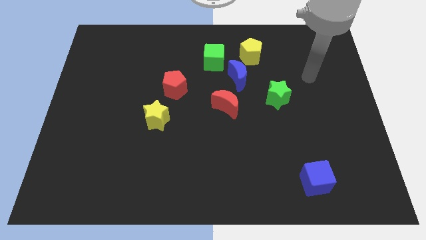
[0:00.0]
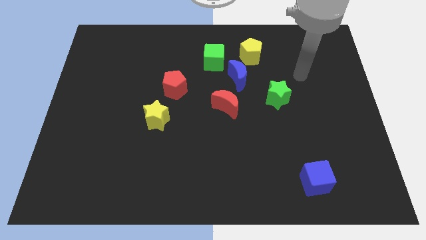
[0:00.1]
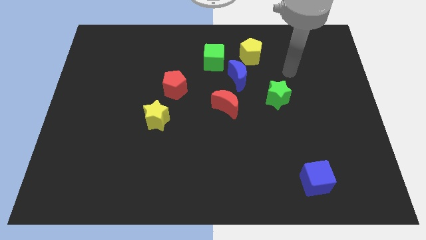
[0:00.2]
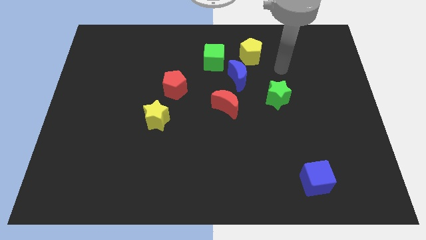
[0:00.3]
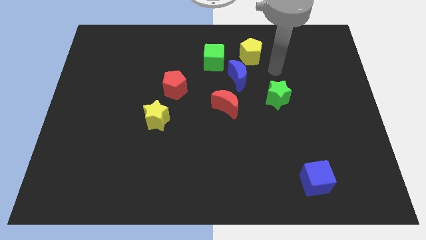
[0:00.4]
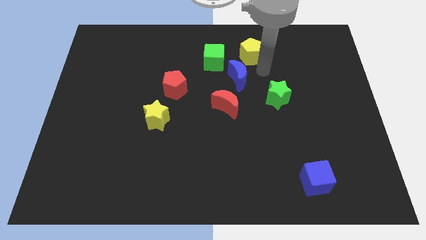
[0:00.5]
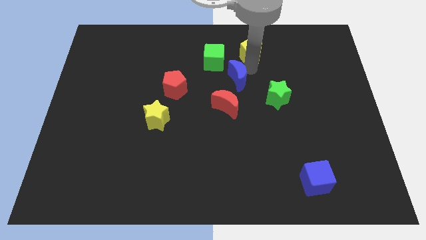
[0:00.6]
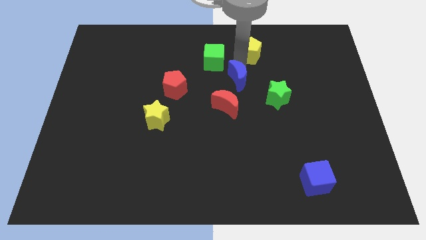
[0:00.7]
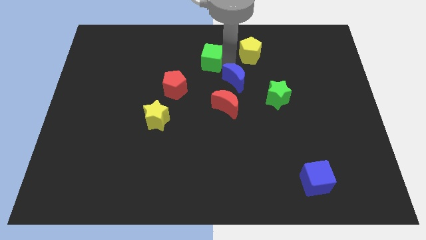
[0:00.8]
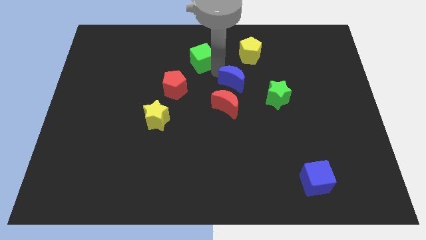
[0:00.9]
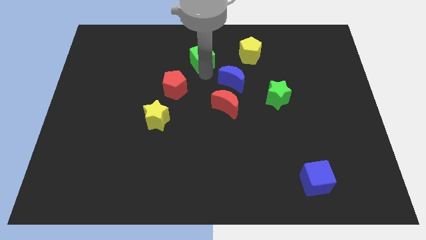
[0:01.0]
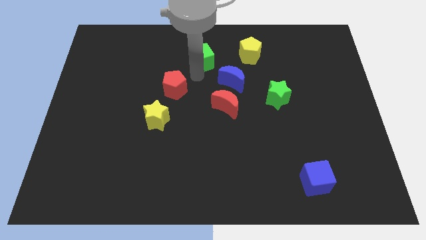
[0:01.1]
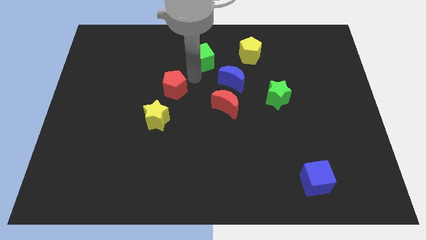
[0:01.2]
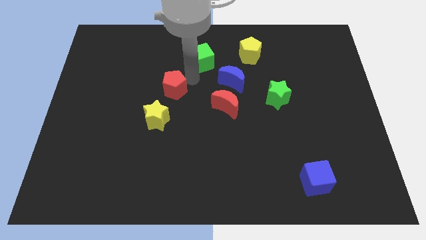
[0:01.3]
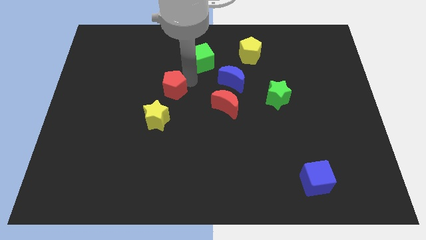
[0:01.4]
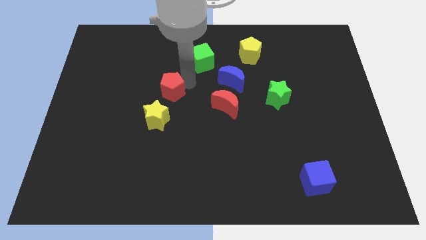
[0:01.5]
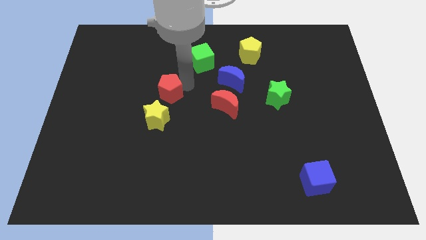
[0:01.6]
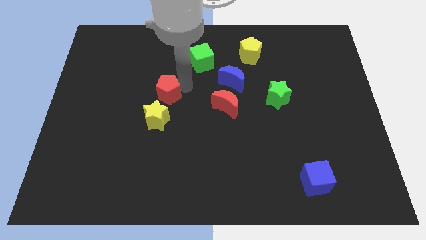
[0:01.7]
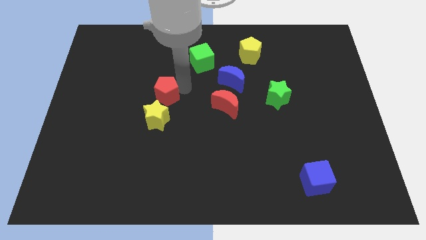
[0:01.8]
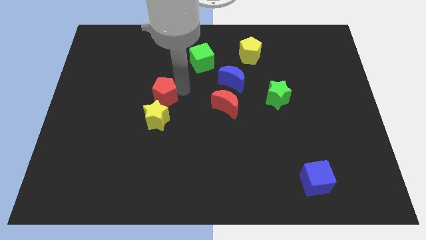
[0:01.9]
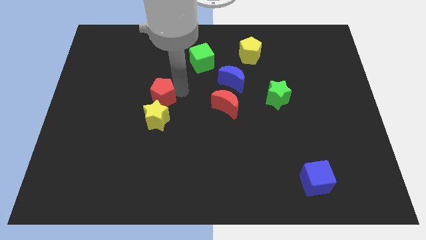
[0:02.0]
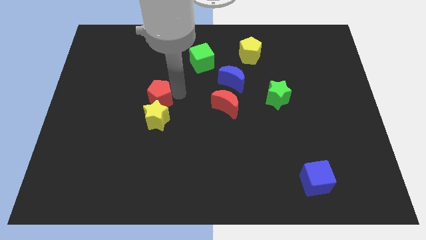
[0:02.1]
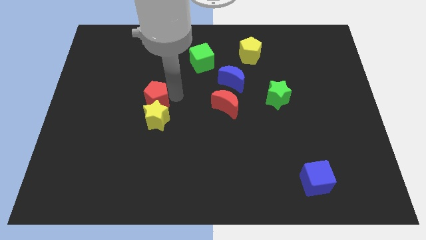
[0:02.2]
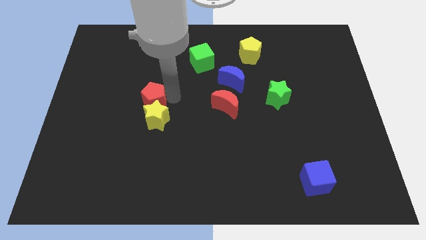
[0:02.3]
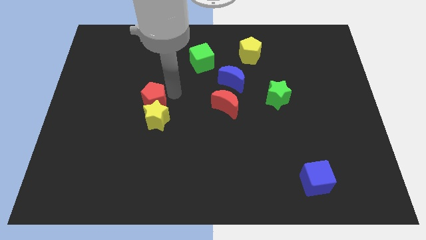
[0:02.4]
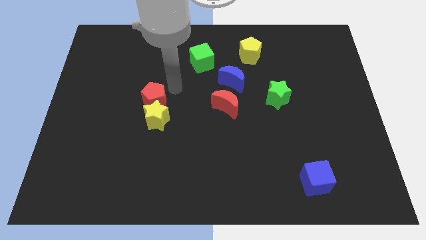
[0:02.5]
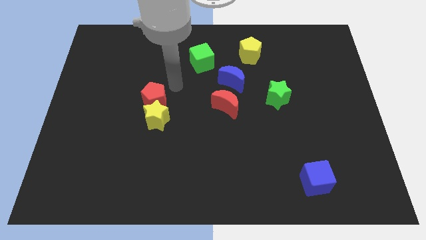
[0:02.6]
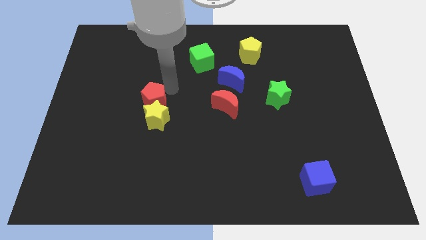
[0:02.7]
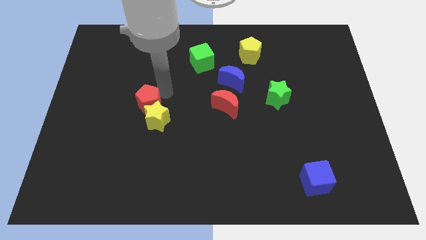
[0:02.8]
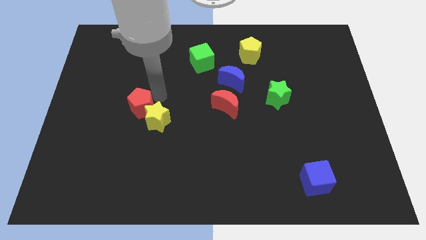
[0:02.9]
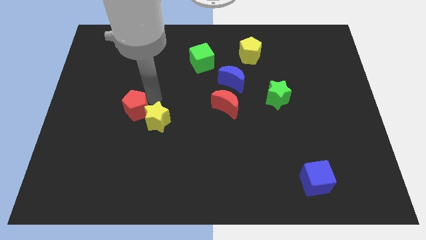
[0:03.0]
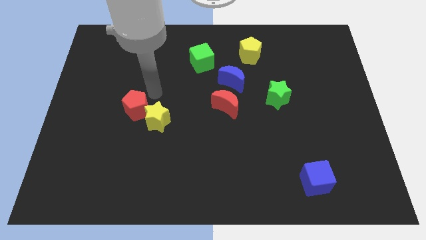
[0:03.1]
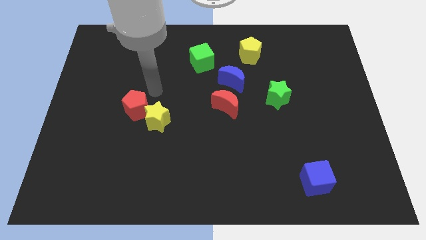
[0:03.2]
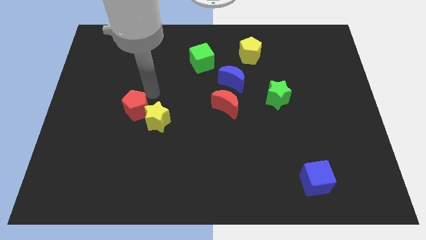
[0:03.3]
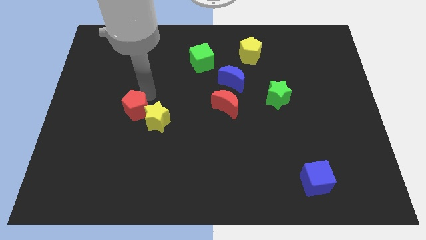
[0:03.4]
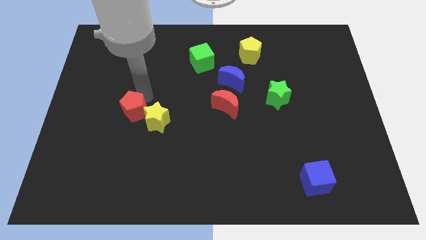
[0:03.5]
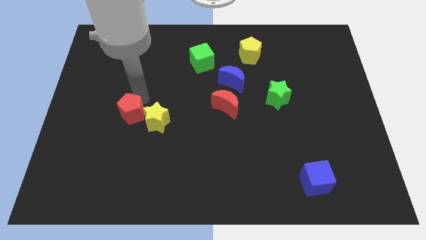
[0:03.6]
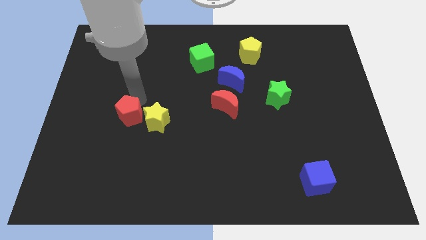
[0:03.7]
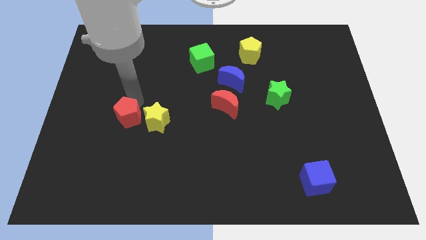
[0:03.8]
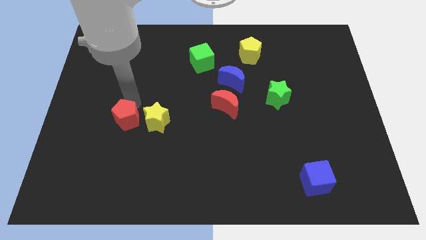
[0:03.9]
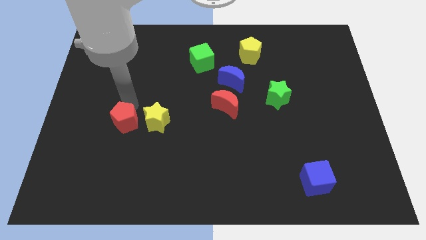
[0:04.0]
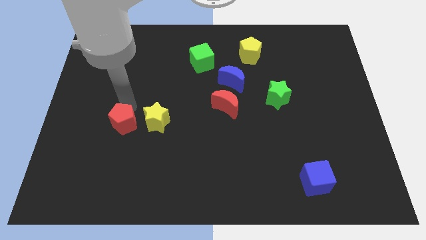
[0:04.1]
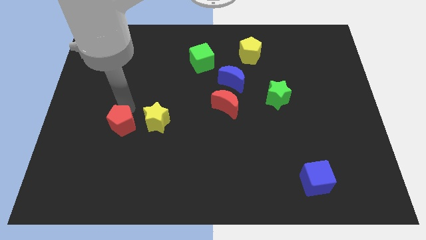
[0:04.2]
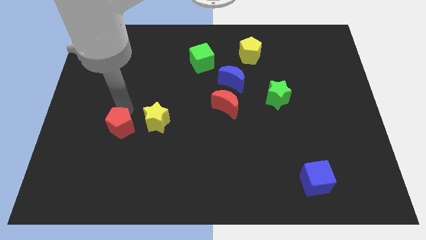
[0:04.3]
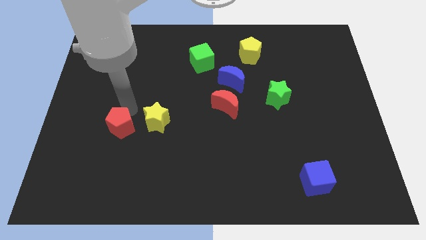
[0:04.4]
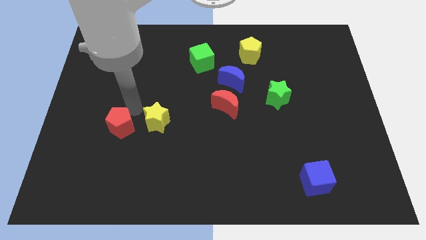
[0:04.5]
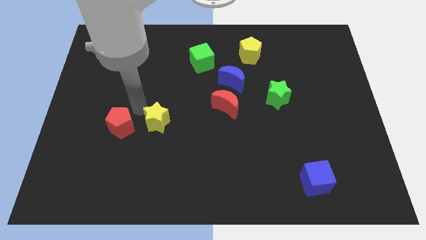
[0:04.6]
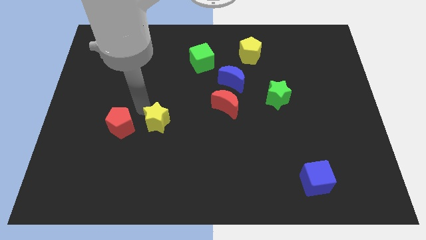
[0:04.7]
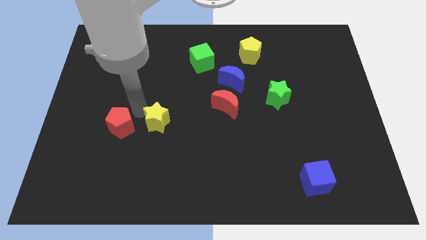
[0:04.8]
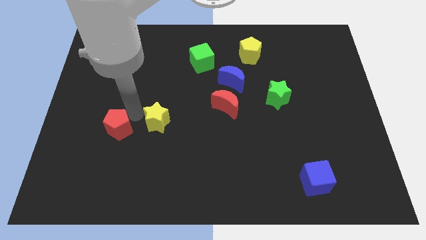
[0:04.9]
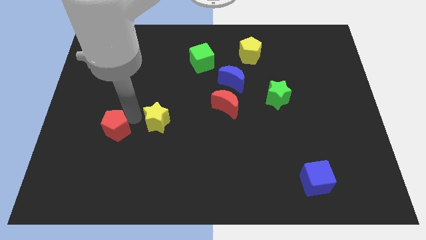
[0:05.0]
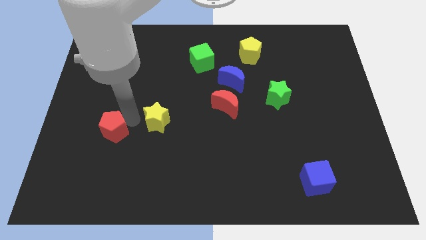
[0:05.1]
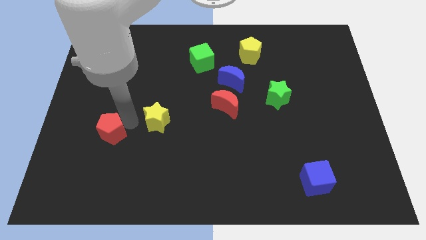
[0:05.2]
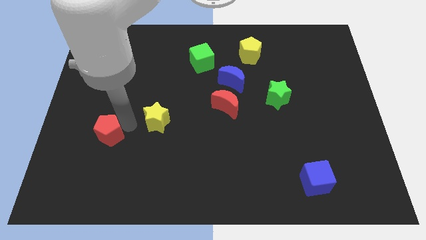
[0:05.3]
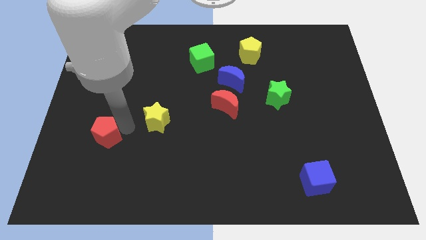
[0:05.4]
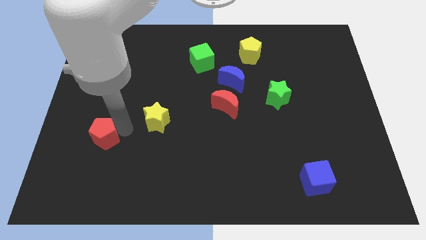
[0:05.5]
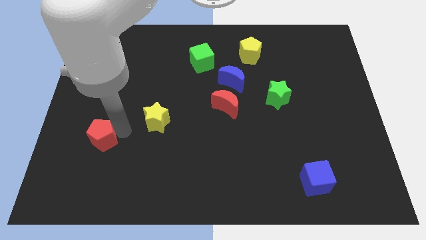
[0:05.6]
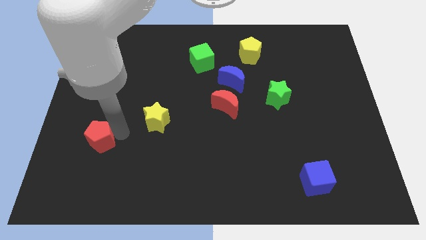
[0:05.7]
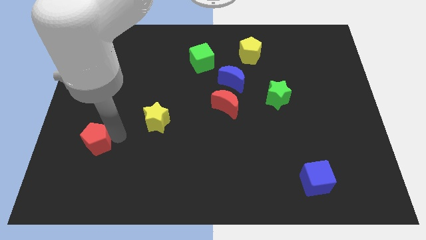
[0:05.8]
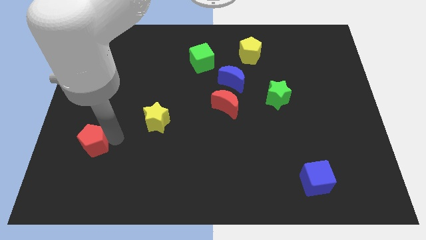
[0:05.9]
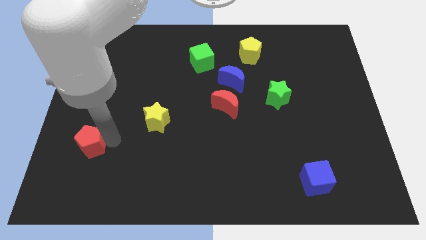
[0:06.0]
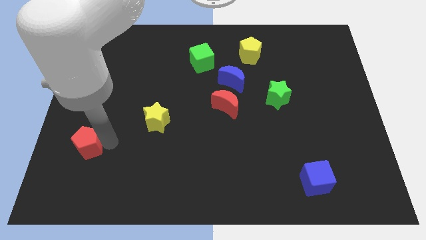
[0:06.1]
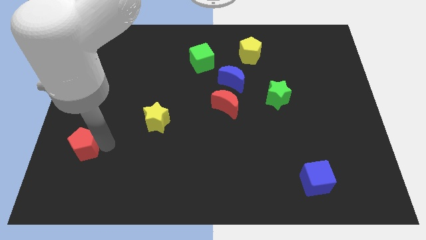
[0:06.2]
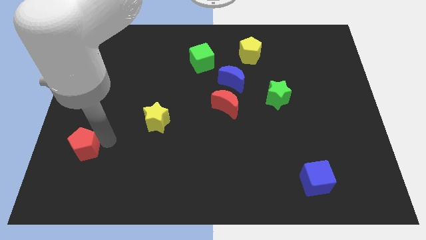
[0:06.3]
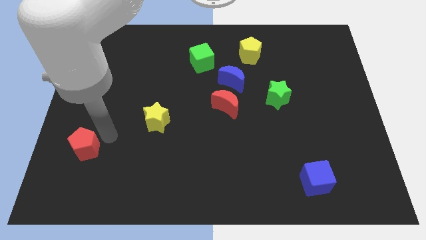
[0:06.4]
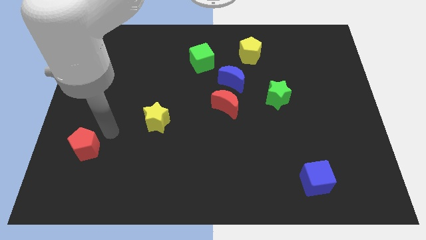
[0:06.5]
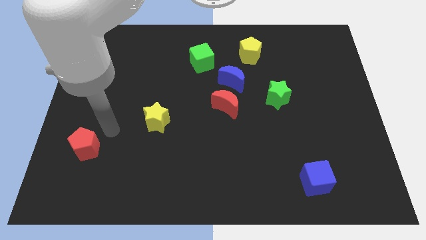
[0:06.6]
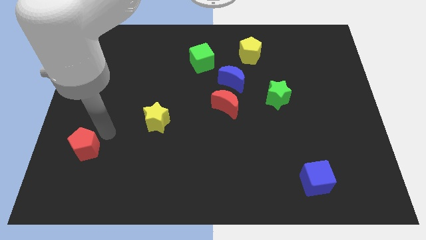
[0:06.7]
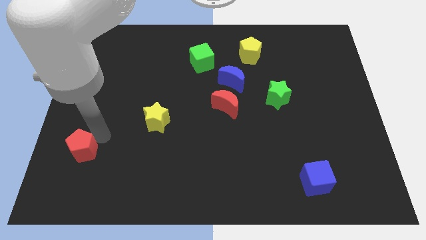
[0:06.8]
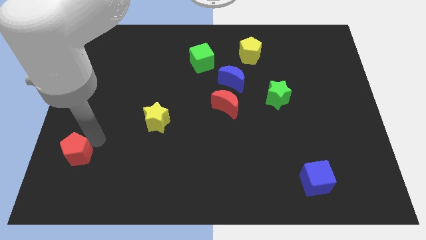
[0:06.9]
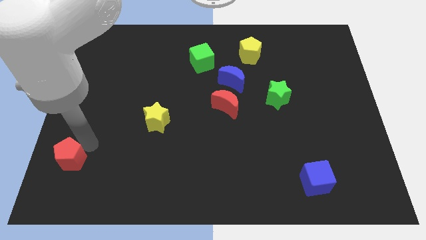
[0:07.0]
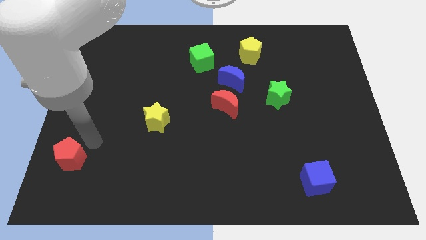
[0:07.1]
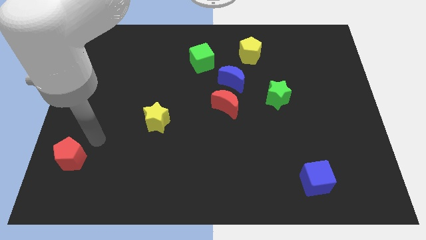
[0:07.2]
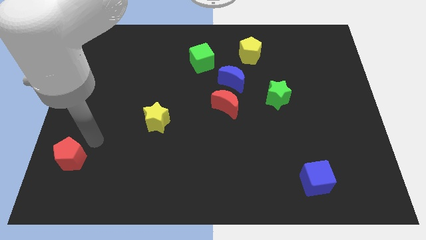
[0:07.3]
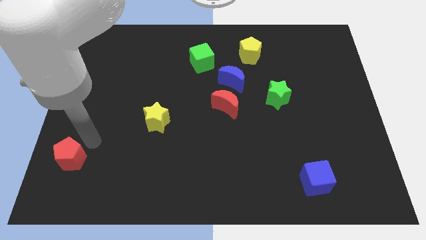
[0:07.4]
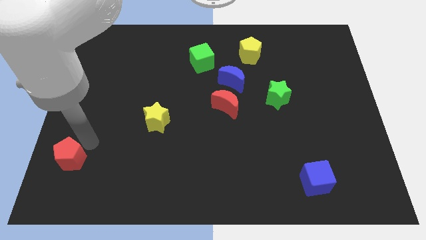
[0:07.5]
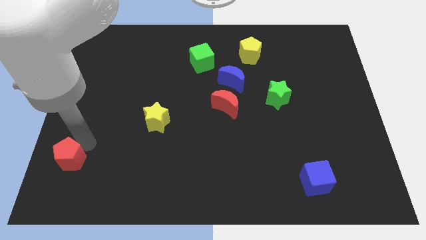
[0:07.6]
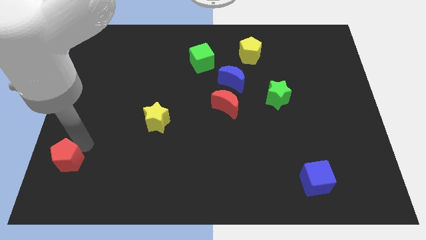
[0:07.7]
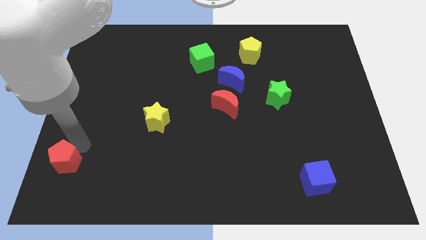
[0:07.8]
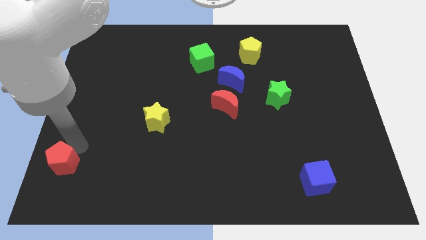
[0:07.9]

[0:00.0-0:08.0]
push the red pentagon to the bottom left of the board
